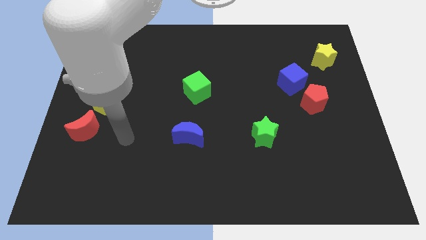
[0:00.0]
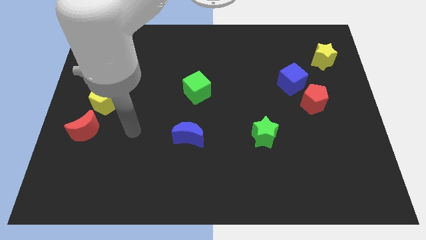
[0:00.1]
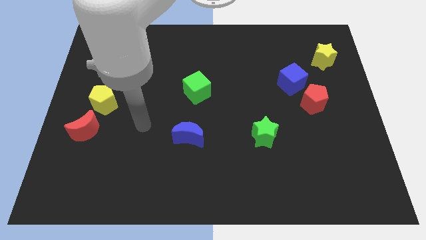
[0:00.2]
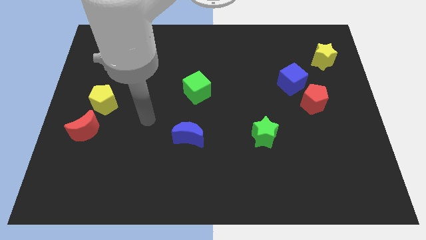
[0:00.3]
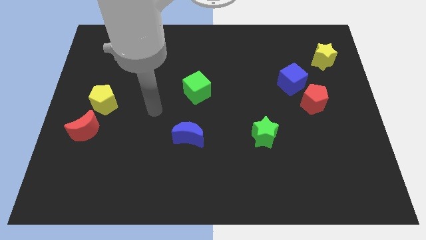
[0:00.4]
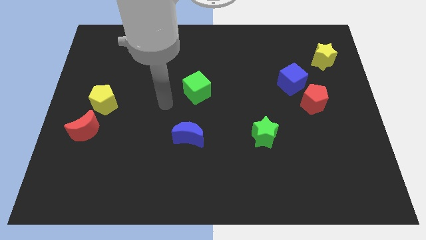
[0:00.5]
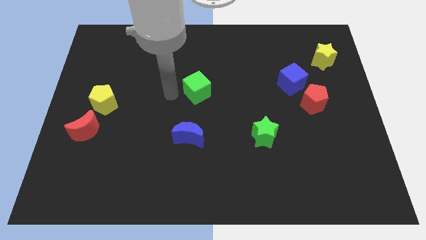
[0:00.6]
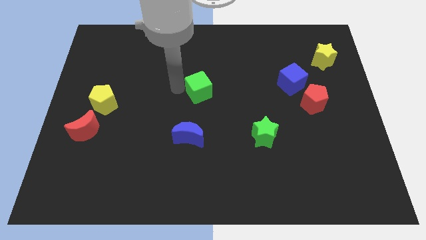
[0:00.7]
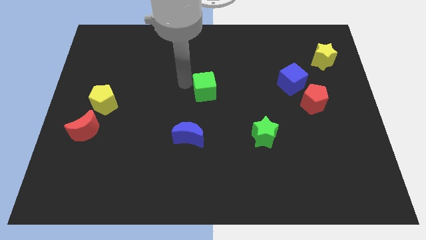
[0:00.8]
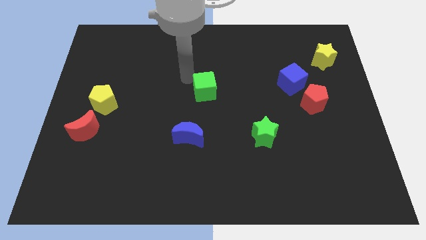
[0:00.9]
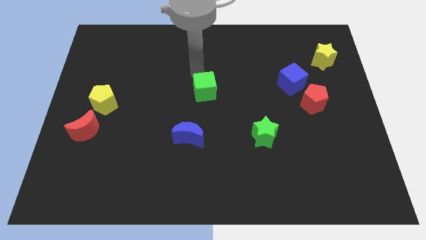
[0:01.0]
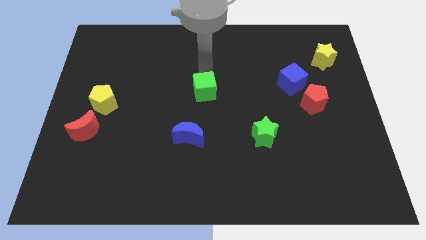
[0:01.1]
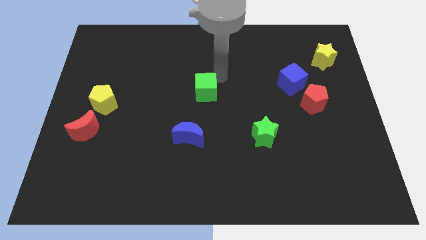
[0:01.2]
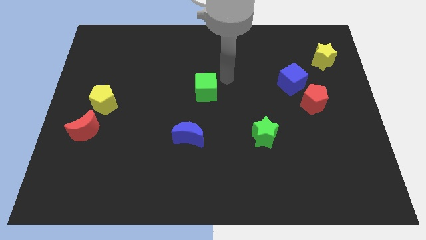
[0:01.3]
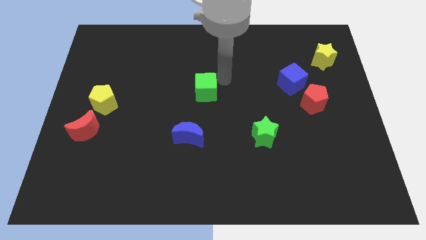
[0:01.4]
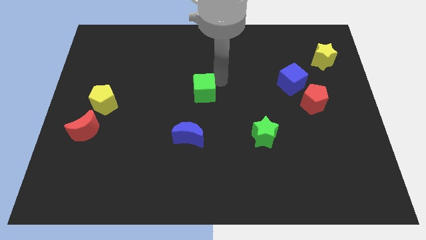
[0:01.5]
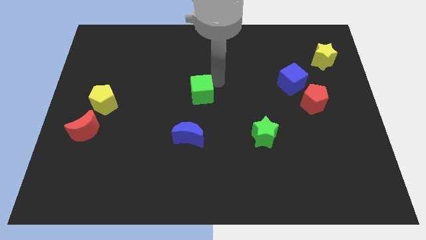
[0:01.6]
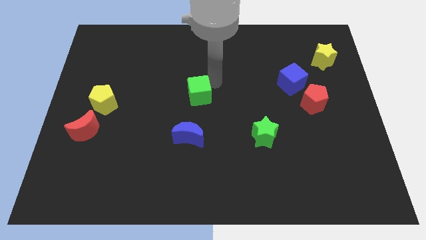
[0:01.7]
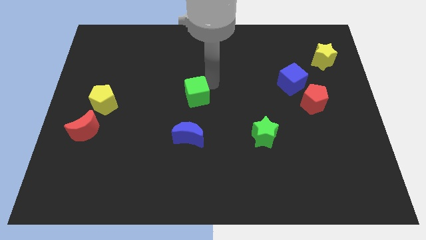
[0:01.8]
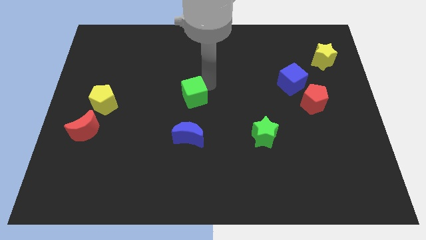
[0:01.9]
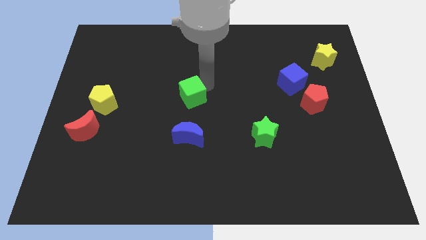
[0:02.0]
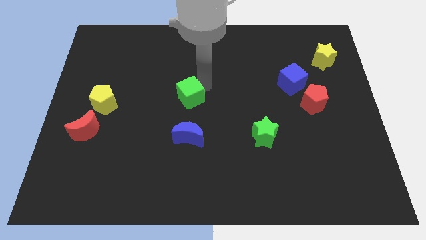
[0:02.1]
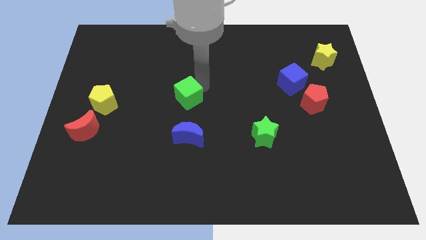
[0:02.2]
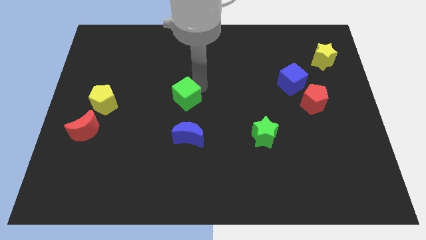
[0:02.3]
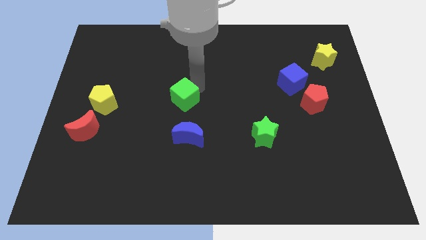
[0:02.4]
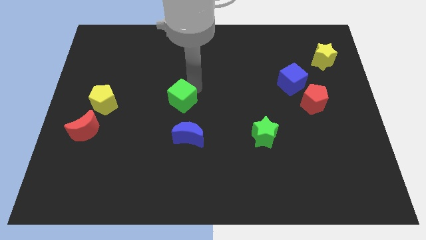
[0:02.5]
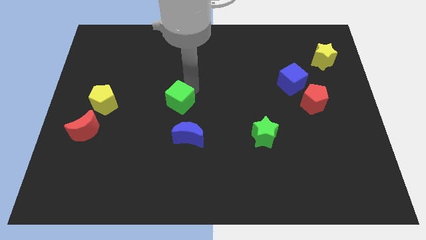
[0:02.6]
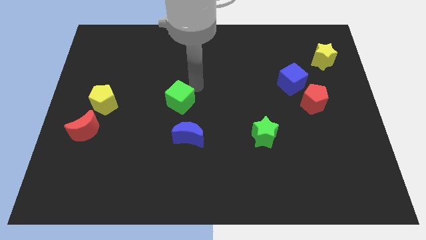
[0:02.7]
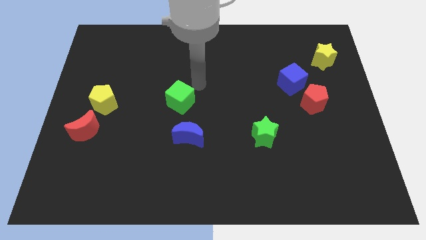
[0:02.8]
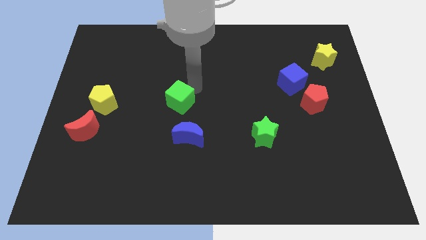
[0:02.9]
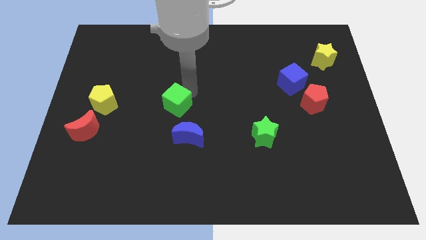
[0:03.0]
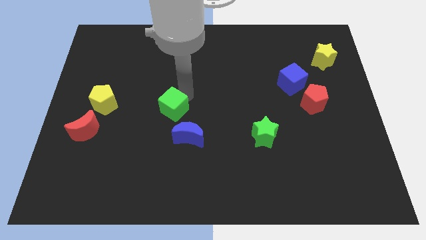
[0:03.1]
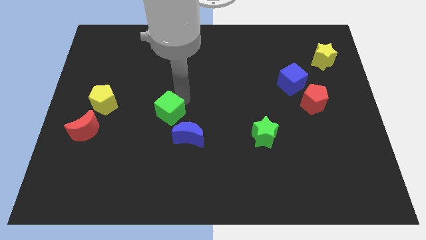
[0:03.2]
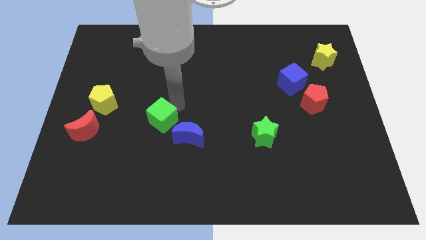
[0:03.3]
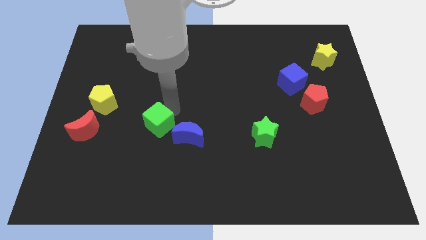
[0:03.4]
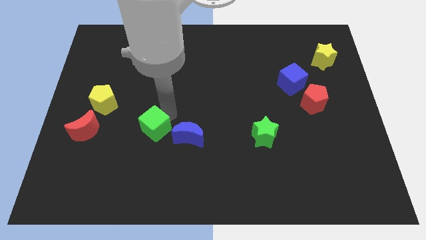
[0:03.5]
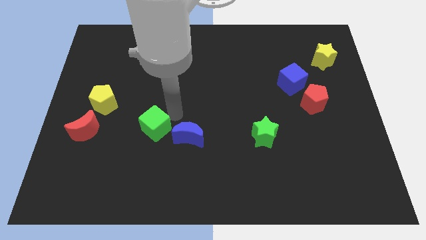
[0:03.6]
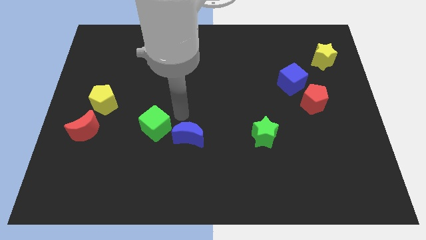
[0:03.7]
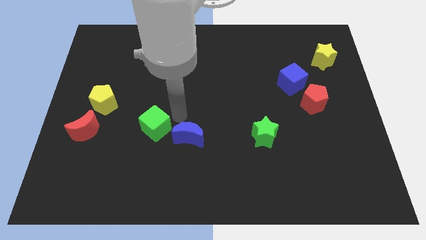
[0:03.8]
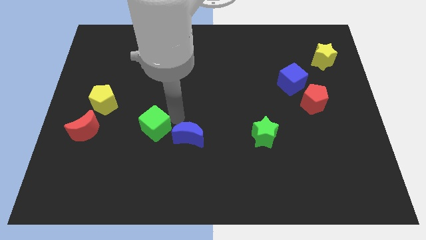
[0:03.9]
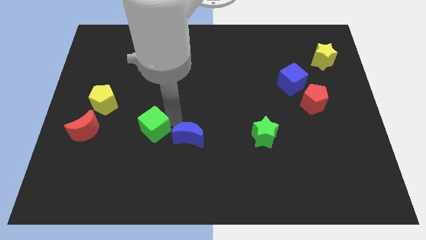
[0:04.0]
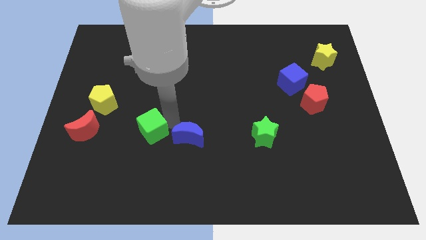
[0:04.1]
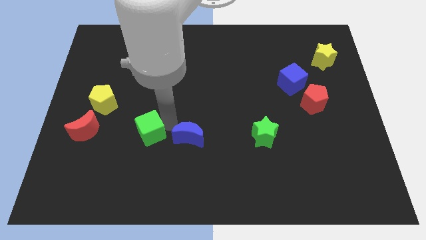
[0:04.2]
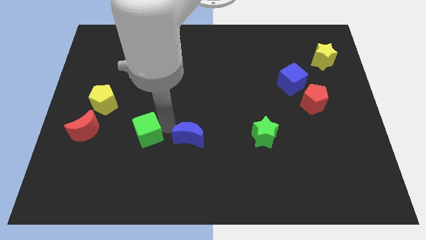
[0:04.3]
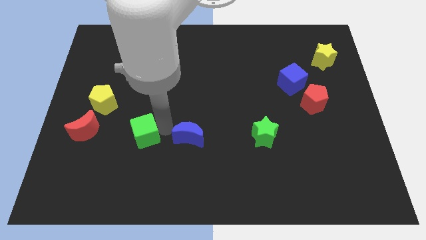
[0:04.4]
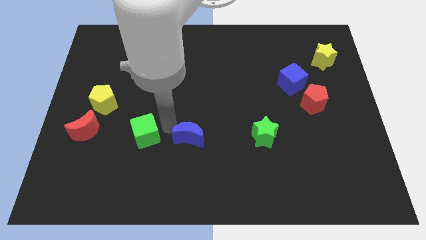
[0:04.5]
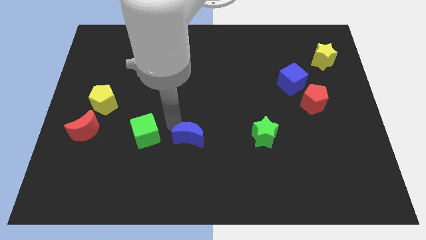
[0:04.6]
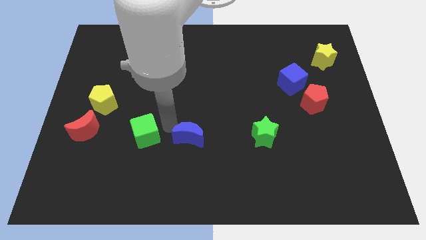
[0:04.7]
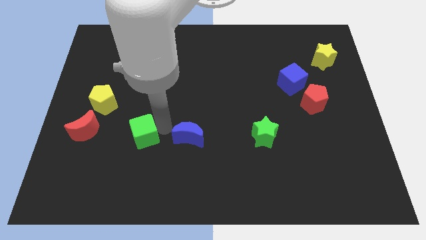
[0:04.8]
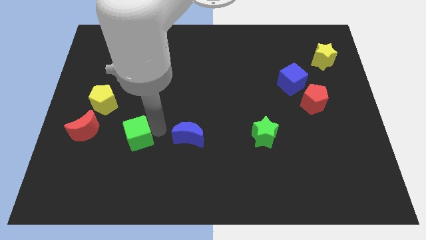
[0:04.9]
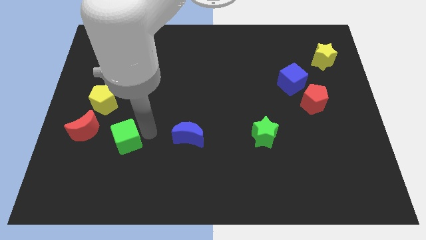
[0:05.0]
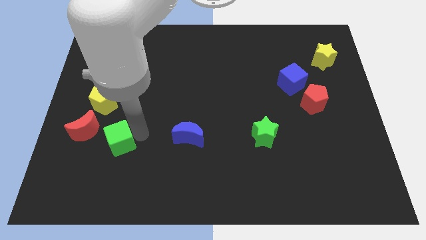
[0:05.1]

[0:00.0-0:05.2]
move the green cube to the bottom right of the red moon

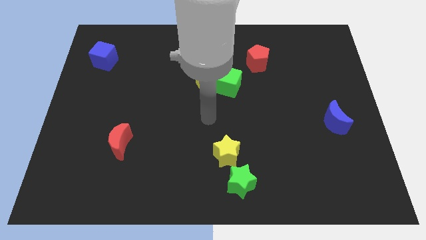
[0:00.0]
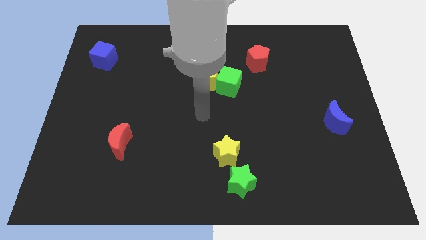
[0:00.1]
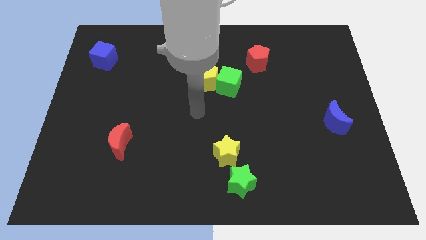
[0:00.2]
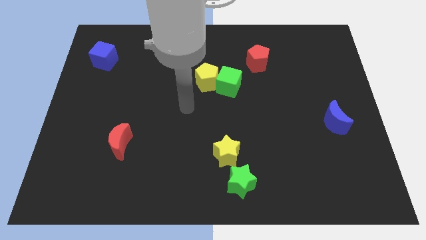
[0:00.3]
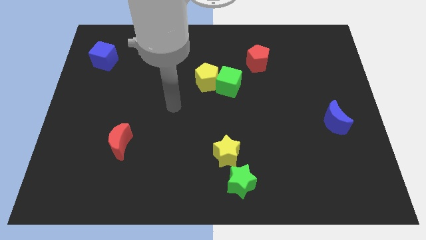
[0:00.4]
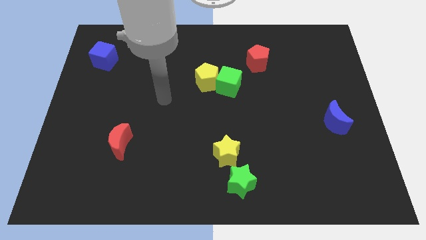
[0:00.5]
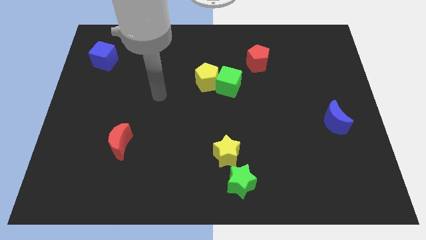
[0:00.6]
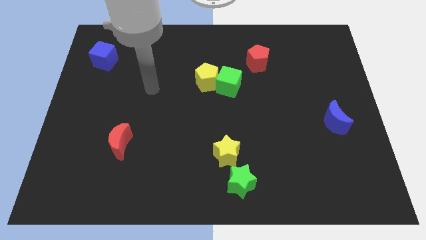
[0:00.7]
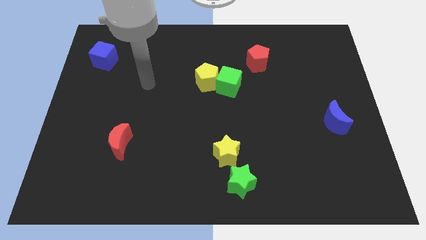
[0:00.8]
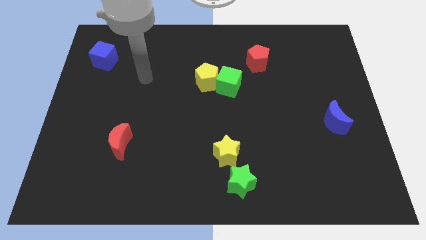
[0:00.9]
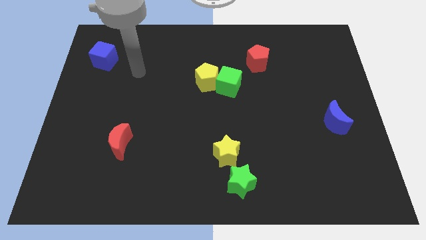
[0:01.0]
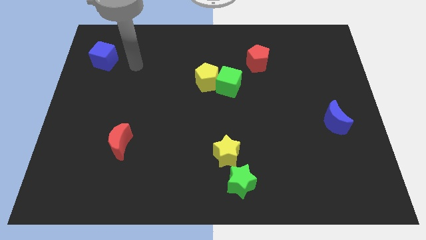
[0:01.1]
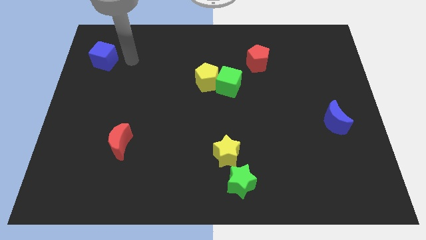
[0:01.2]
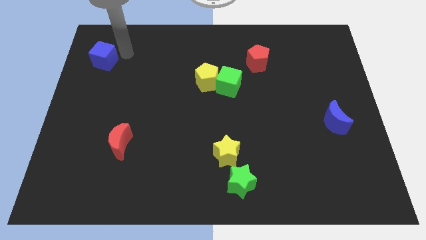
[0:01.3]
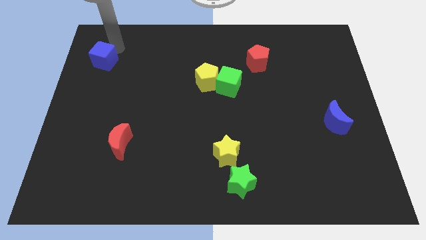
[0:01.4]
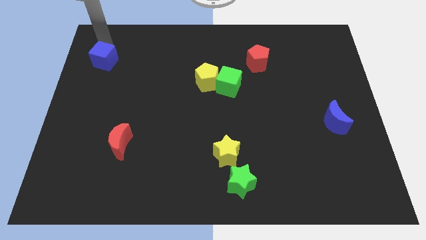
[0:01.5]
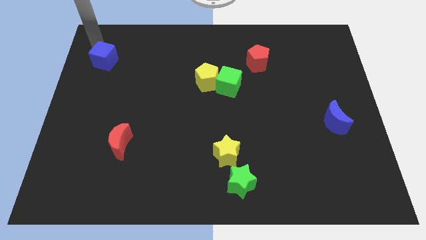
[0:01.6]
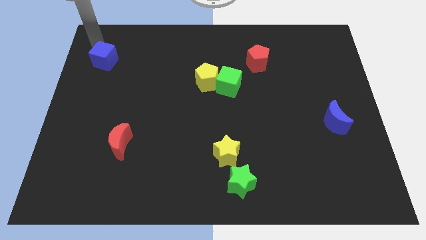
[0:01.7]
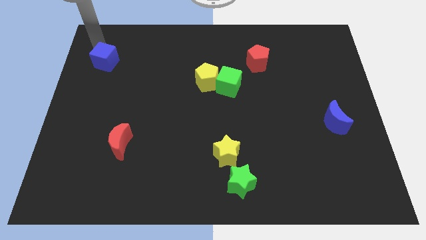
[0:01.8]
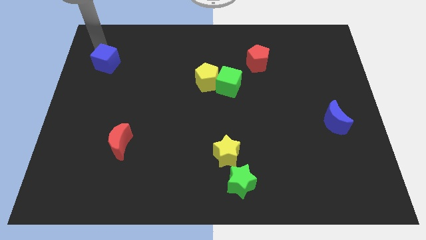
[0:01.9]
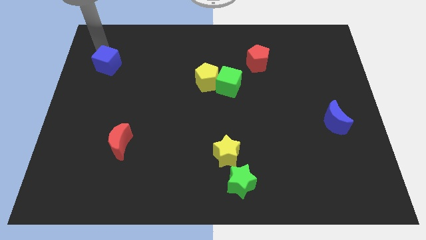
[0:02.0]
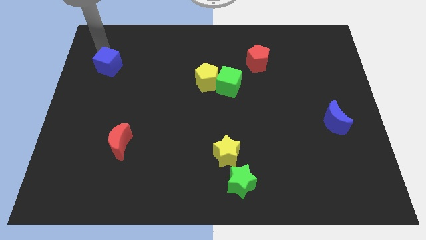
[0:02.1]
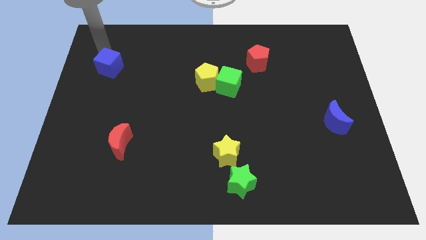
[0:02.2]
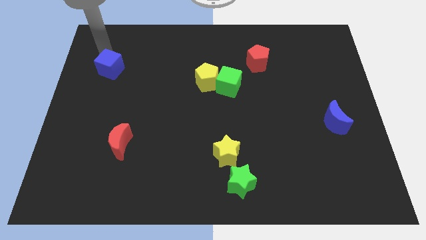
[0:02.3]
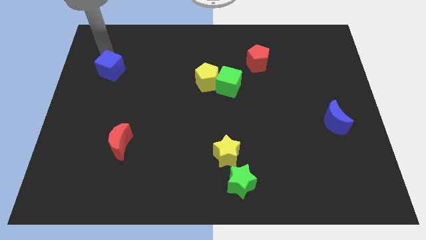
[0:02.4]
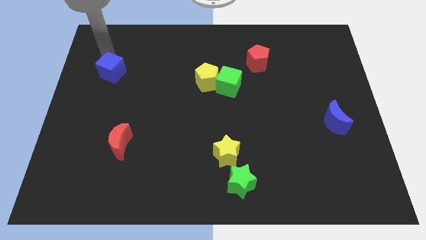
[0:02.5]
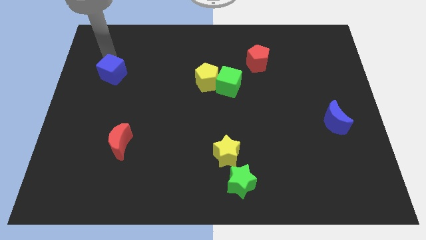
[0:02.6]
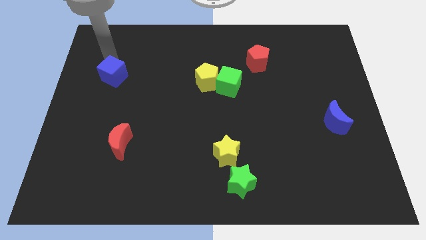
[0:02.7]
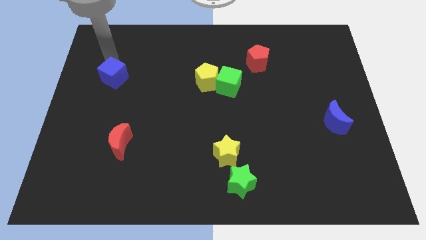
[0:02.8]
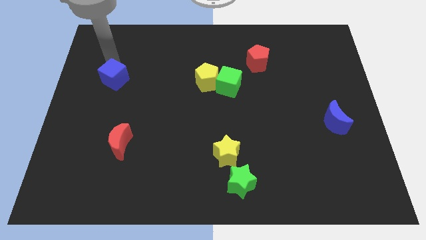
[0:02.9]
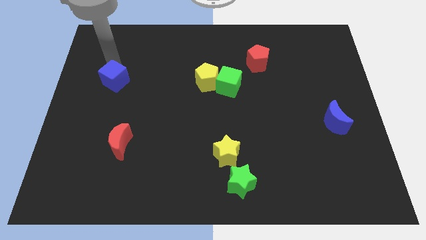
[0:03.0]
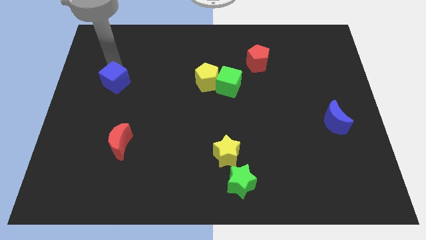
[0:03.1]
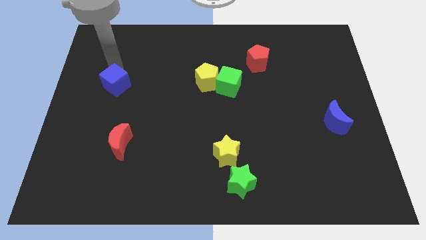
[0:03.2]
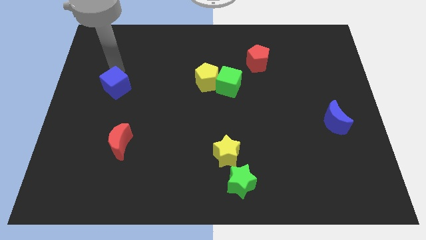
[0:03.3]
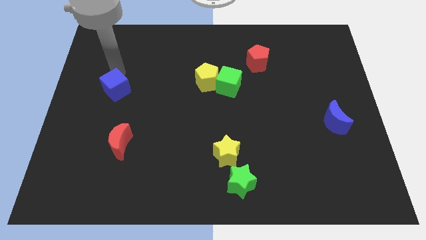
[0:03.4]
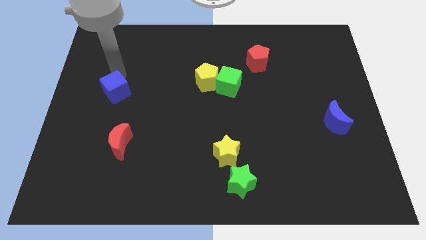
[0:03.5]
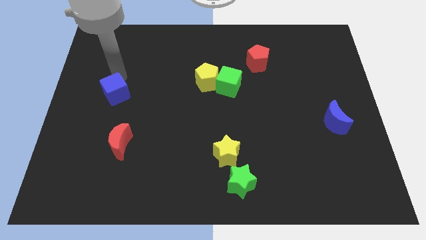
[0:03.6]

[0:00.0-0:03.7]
put the blue cube above the red moon
